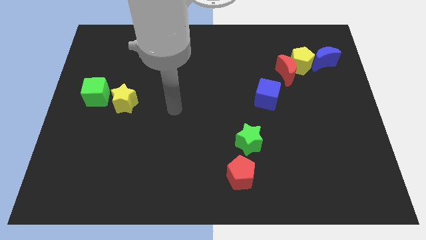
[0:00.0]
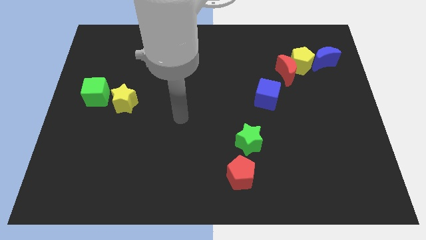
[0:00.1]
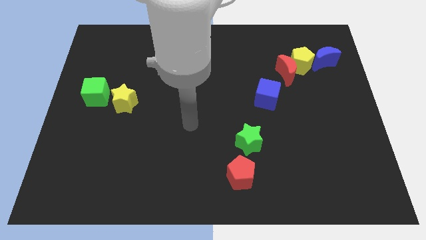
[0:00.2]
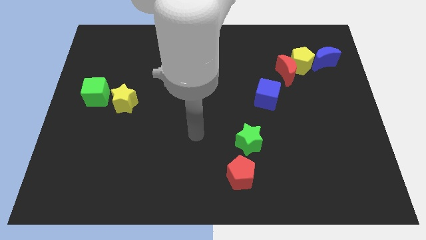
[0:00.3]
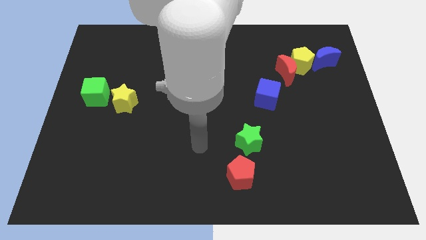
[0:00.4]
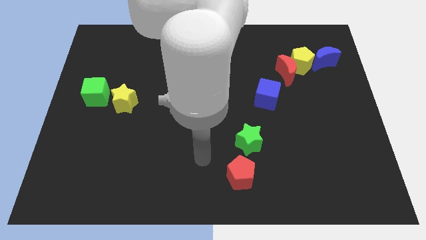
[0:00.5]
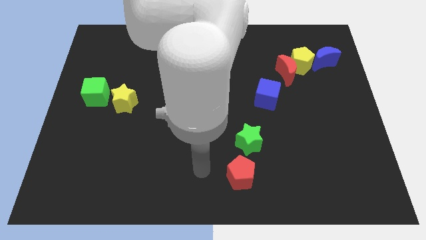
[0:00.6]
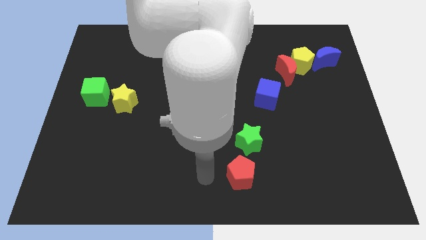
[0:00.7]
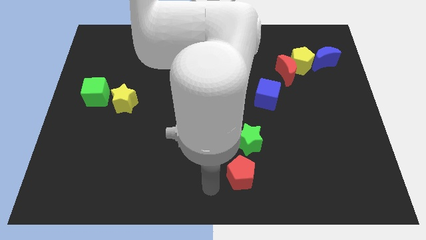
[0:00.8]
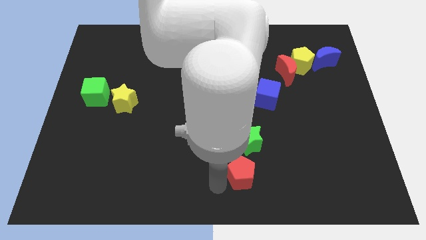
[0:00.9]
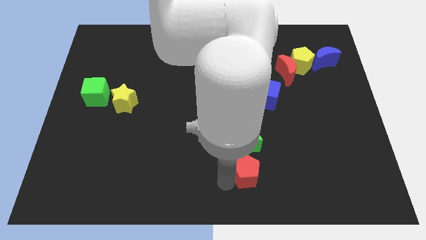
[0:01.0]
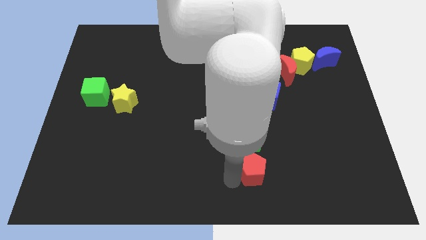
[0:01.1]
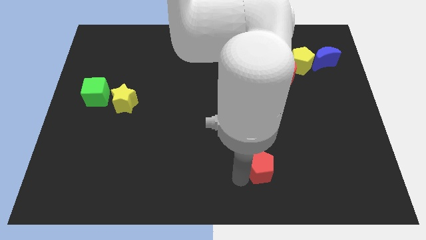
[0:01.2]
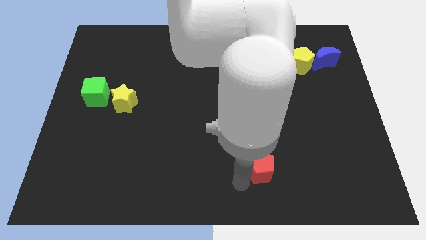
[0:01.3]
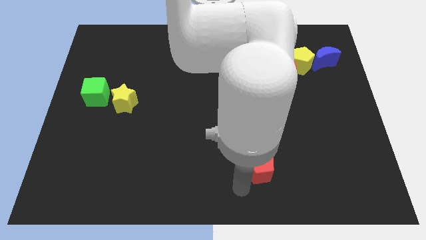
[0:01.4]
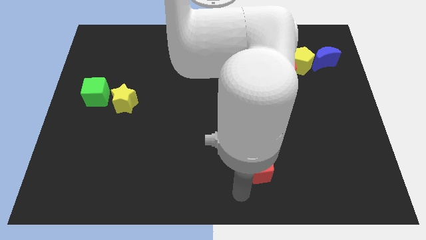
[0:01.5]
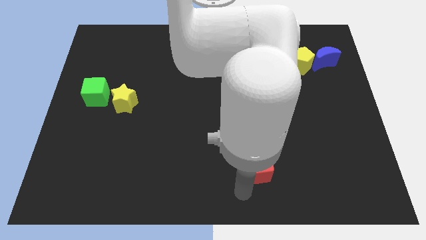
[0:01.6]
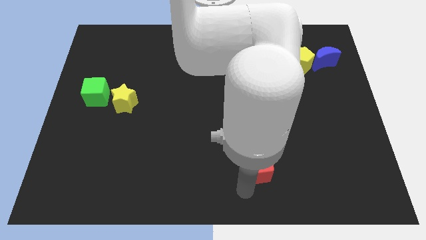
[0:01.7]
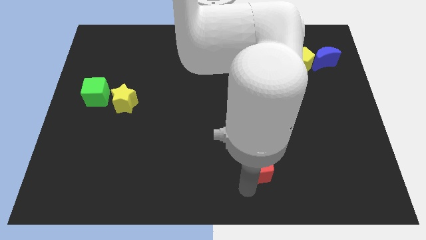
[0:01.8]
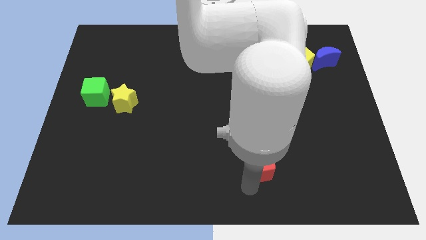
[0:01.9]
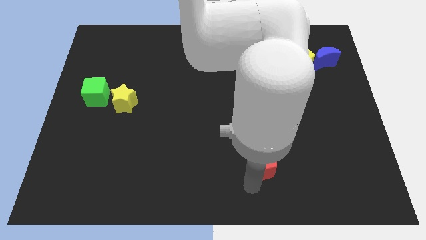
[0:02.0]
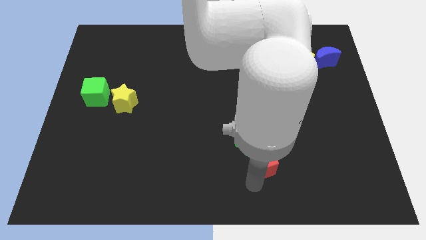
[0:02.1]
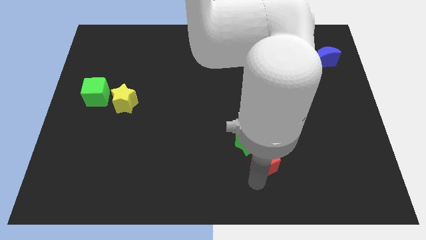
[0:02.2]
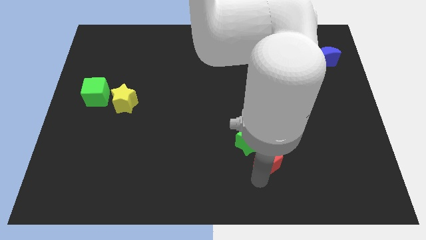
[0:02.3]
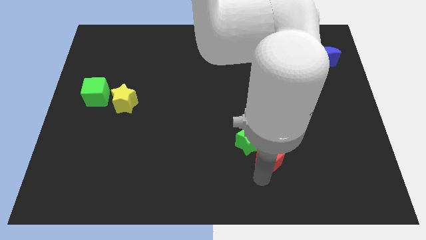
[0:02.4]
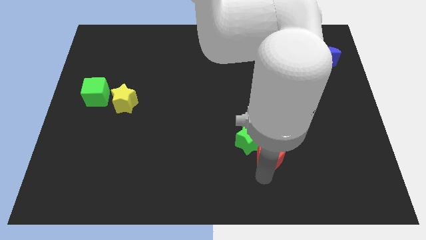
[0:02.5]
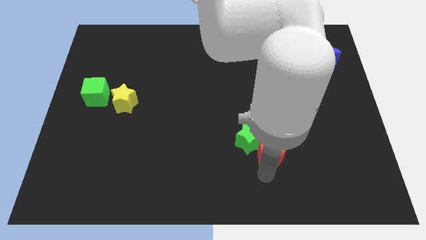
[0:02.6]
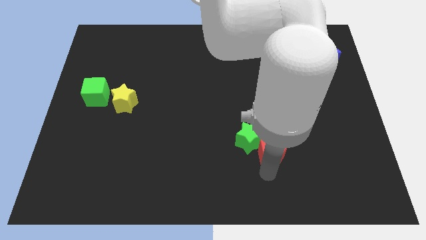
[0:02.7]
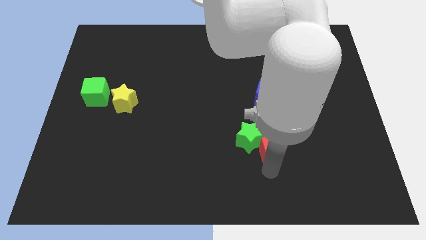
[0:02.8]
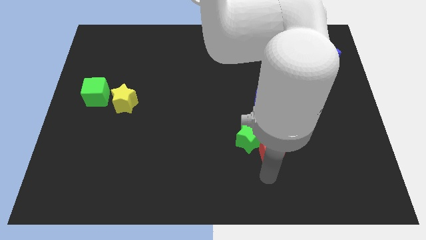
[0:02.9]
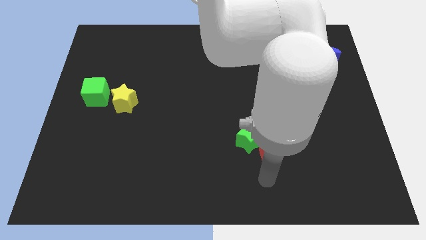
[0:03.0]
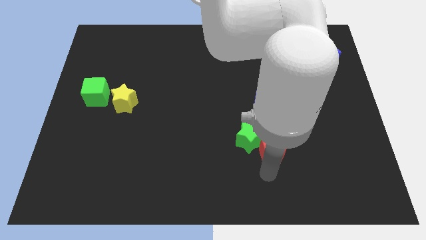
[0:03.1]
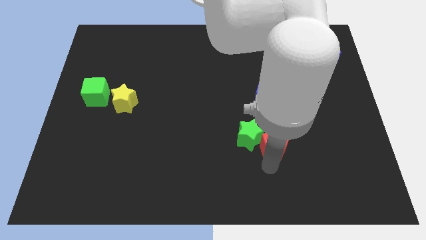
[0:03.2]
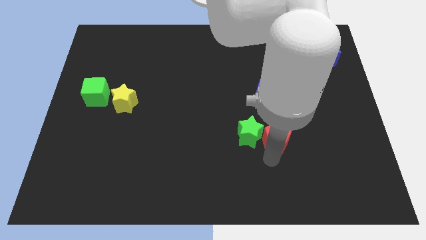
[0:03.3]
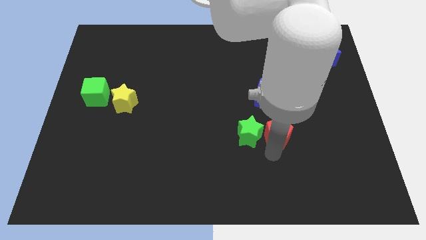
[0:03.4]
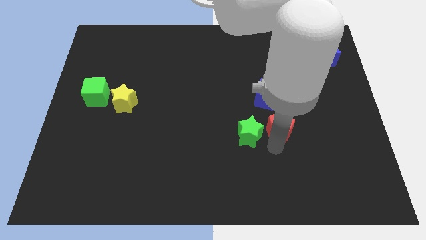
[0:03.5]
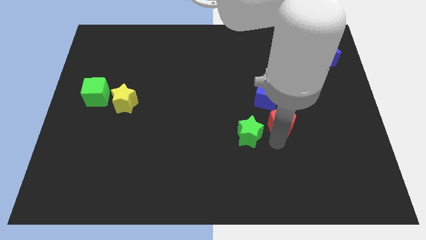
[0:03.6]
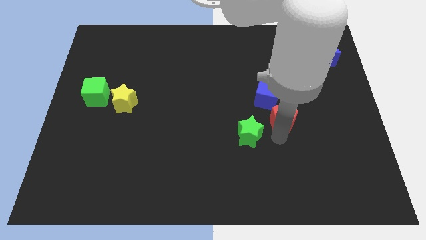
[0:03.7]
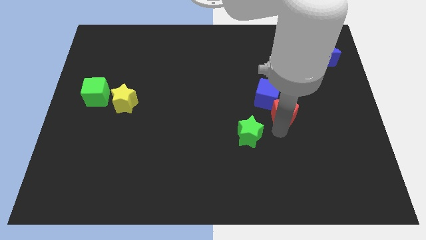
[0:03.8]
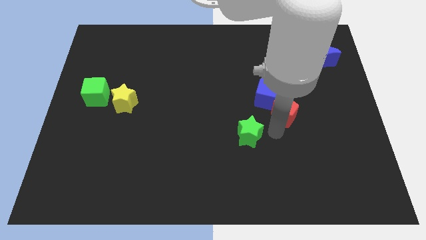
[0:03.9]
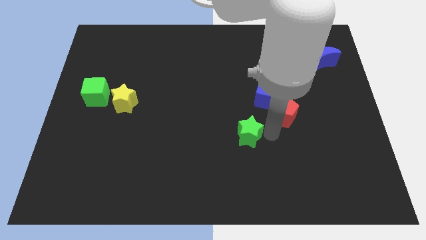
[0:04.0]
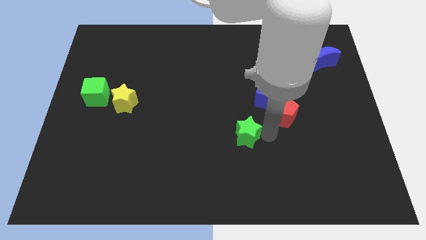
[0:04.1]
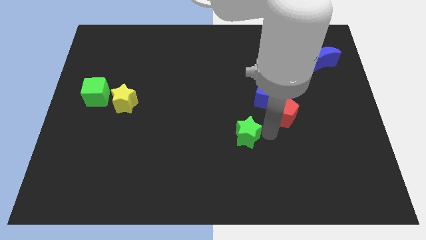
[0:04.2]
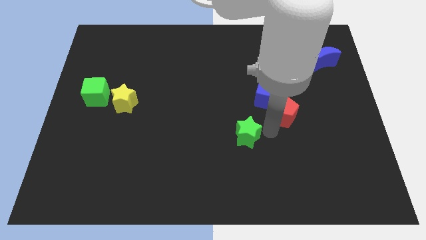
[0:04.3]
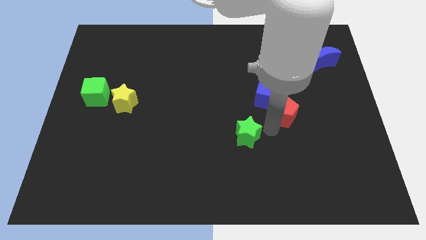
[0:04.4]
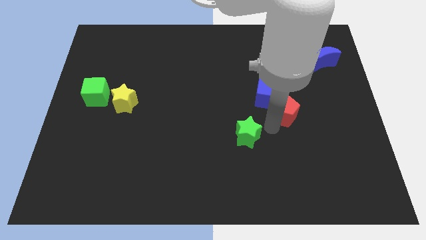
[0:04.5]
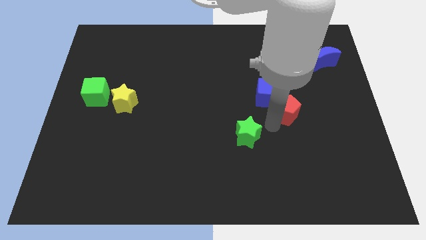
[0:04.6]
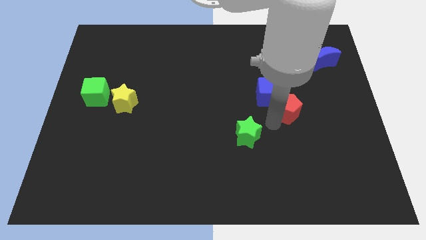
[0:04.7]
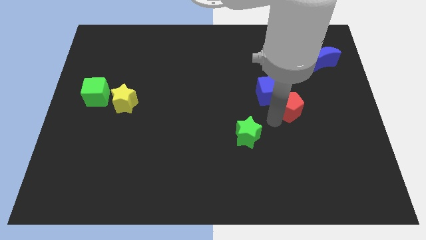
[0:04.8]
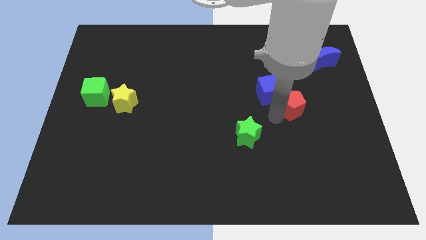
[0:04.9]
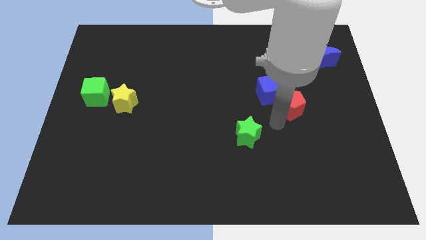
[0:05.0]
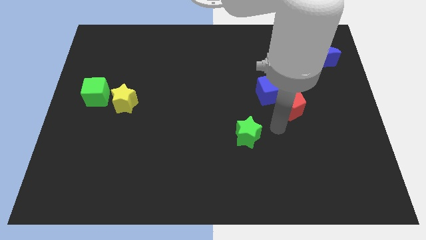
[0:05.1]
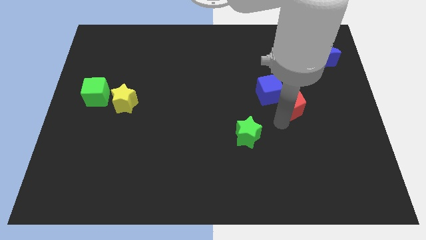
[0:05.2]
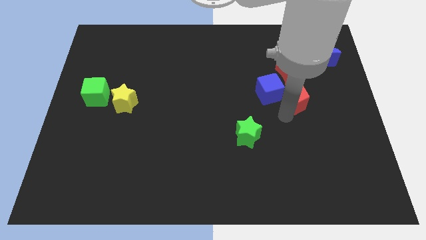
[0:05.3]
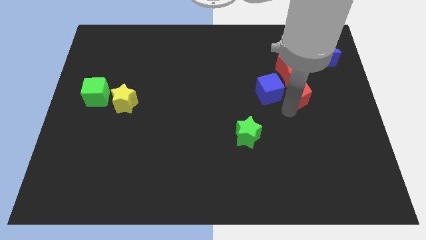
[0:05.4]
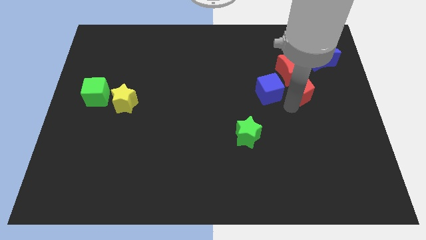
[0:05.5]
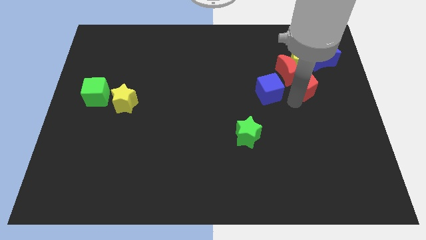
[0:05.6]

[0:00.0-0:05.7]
push the red pentagon to the bottom left of the blue moon
